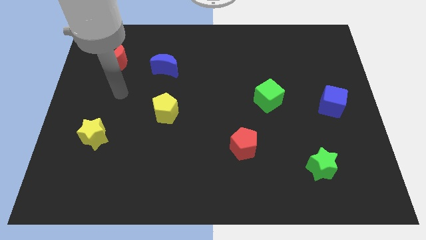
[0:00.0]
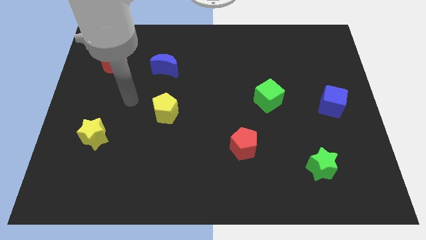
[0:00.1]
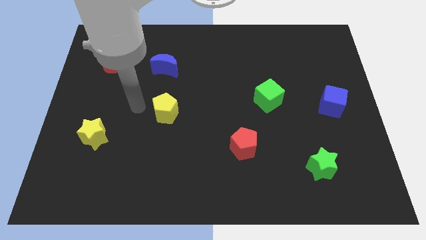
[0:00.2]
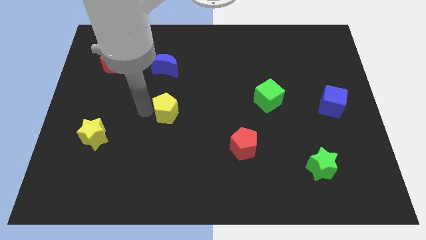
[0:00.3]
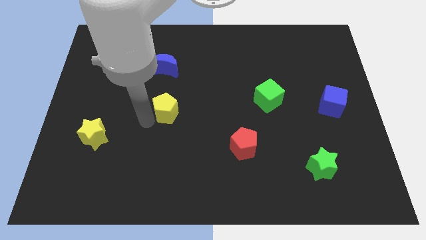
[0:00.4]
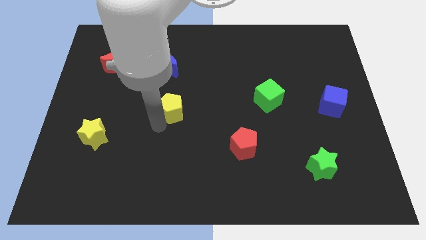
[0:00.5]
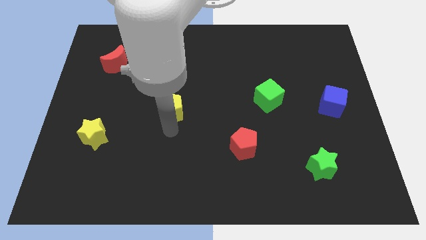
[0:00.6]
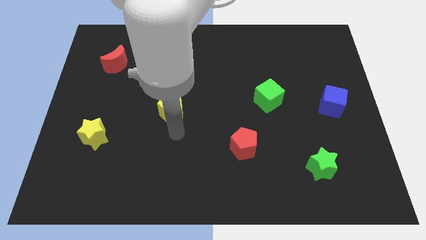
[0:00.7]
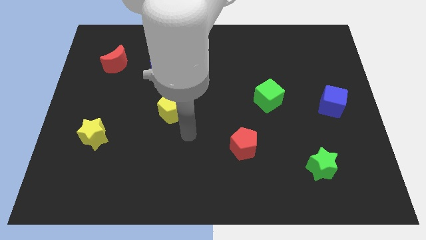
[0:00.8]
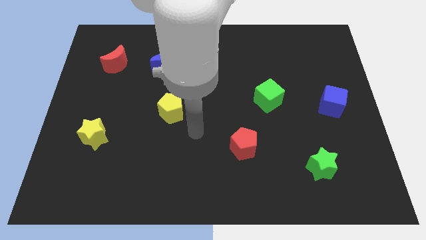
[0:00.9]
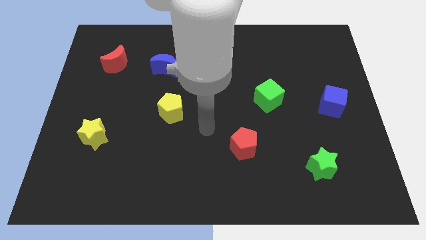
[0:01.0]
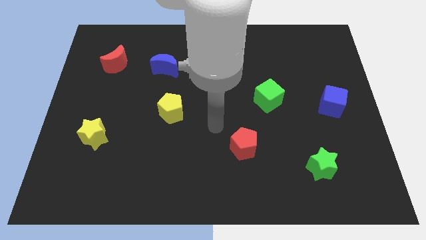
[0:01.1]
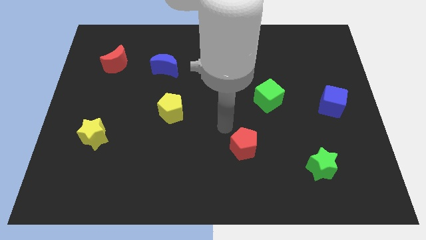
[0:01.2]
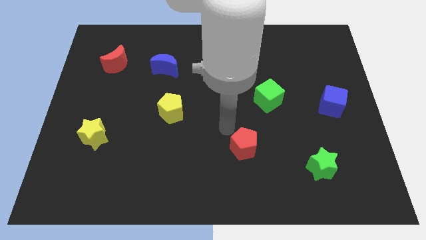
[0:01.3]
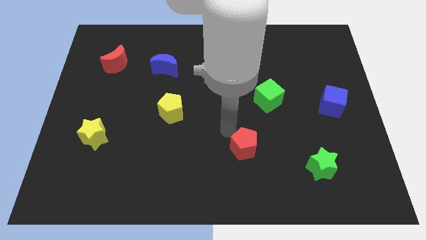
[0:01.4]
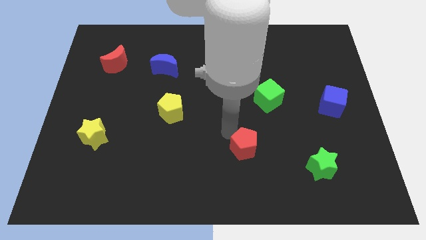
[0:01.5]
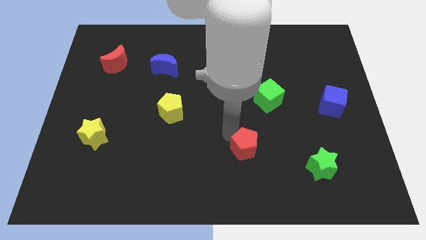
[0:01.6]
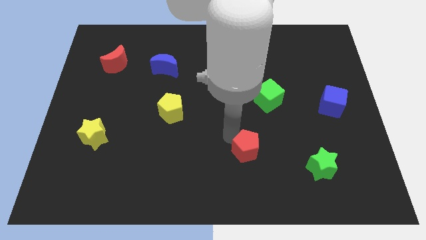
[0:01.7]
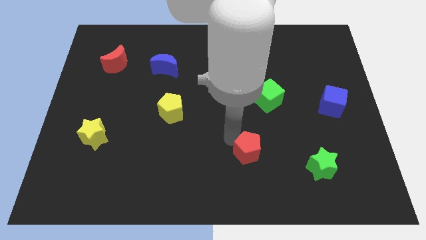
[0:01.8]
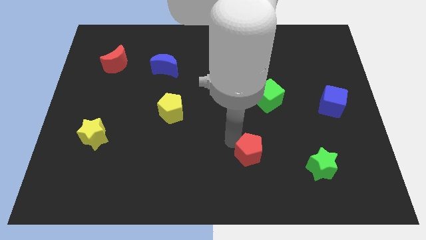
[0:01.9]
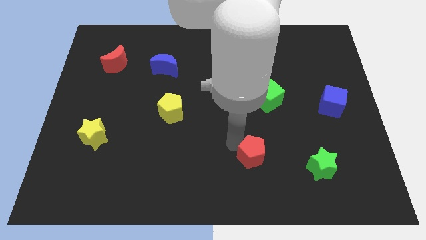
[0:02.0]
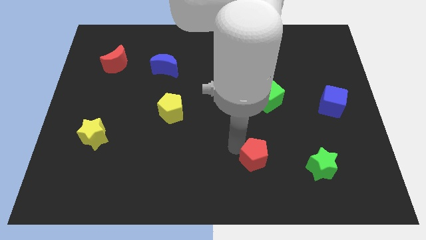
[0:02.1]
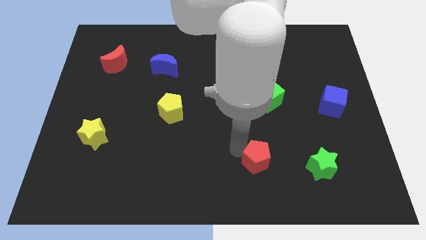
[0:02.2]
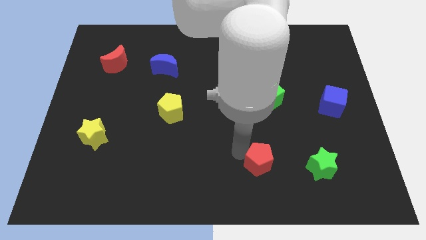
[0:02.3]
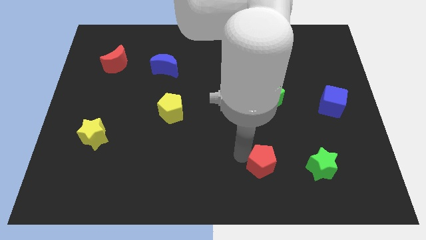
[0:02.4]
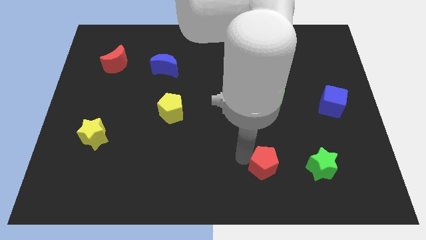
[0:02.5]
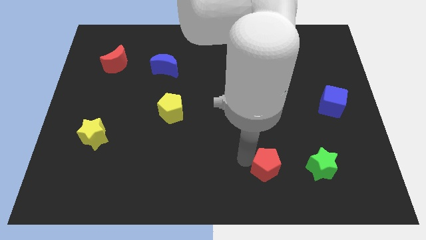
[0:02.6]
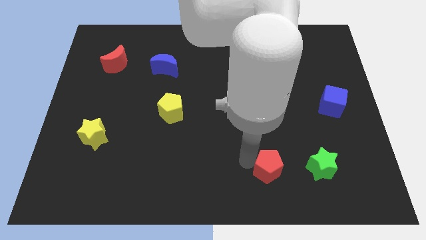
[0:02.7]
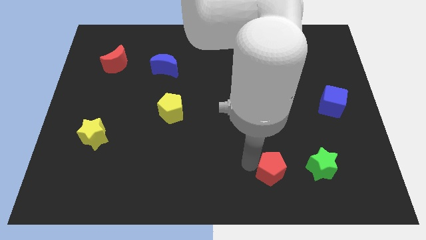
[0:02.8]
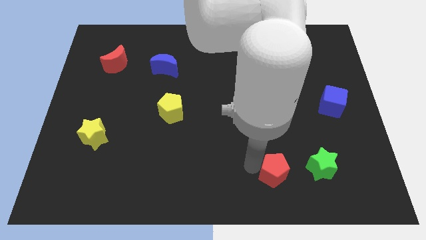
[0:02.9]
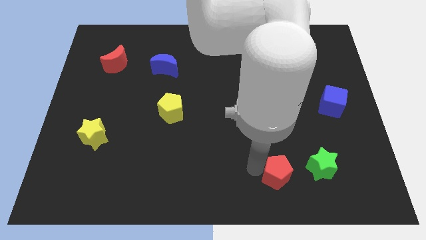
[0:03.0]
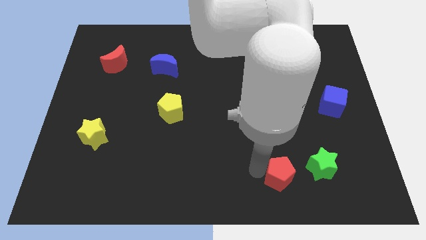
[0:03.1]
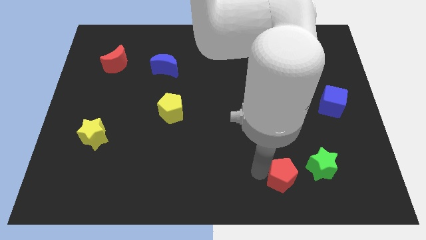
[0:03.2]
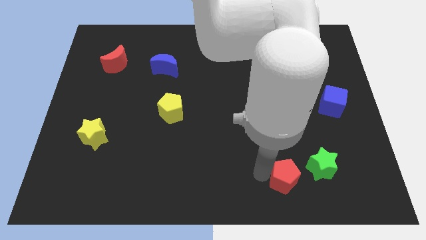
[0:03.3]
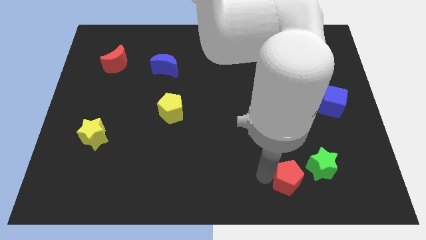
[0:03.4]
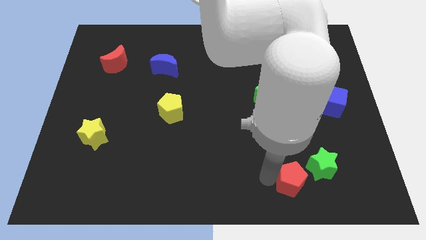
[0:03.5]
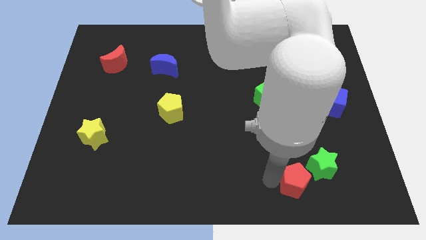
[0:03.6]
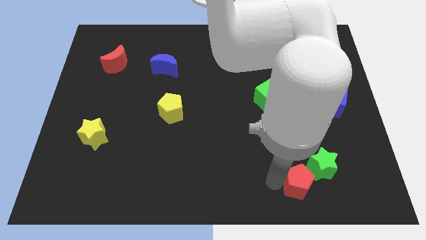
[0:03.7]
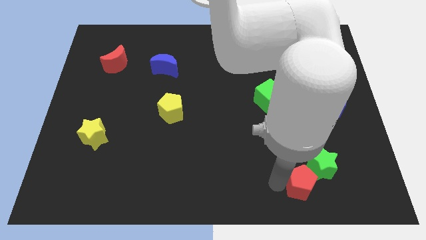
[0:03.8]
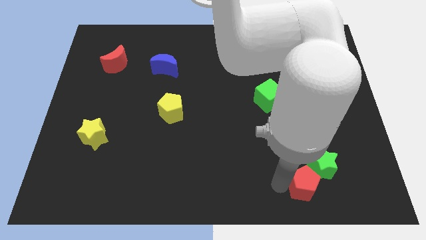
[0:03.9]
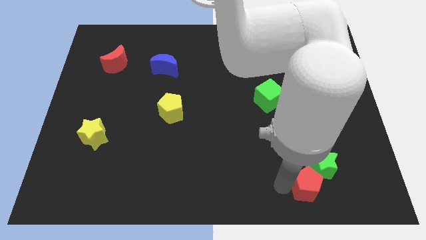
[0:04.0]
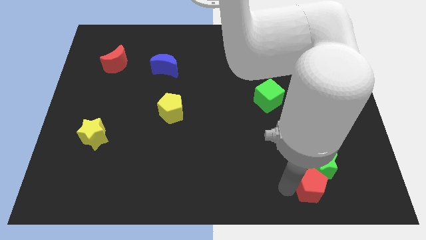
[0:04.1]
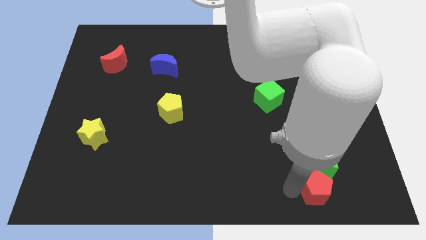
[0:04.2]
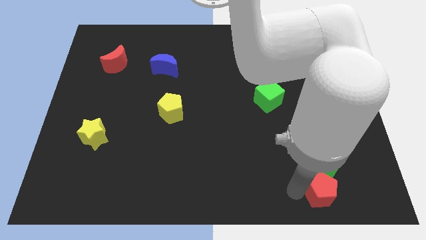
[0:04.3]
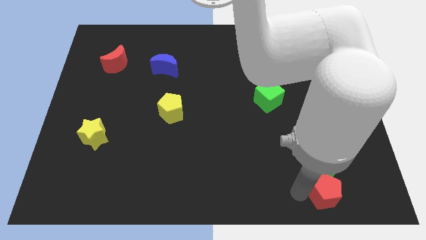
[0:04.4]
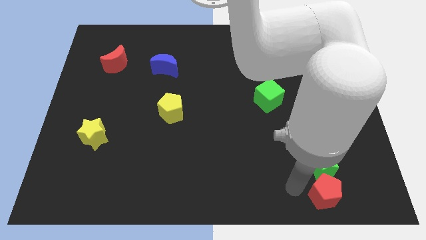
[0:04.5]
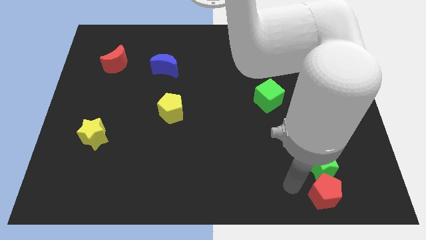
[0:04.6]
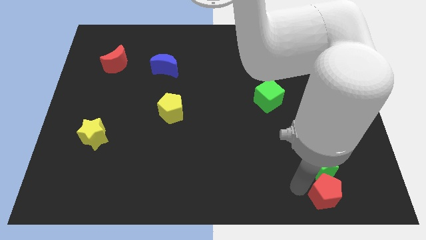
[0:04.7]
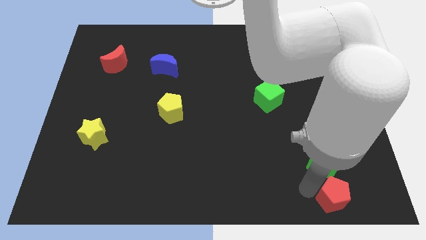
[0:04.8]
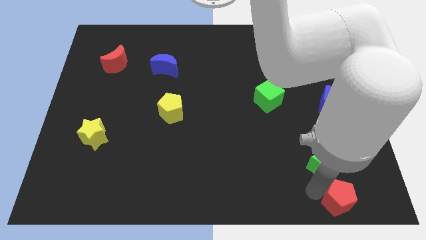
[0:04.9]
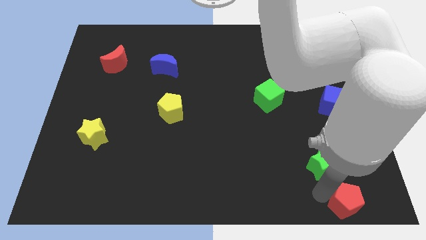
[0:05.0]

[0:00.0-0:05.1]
move the red pentagon to the bottom right

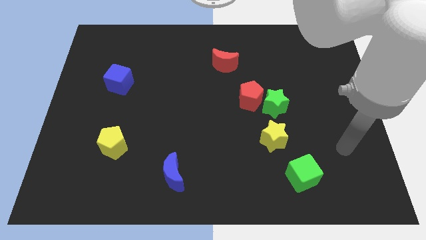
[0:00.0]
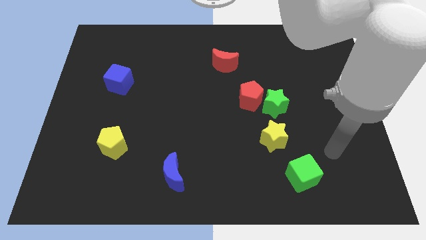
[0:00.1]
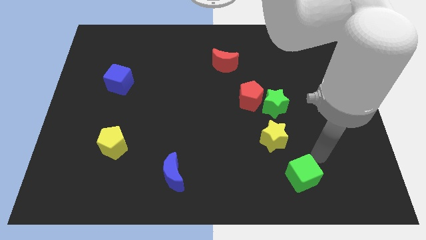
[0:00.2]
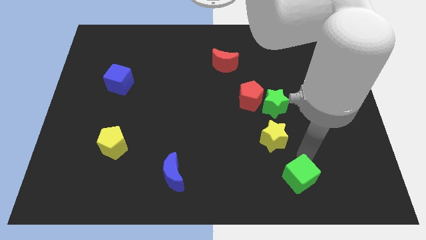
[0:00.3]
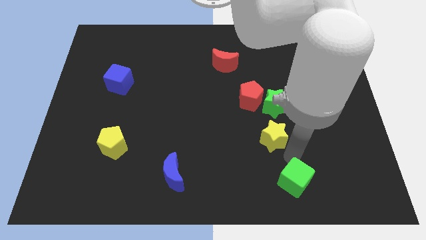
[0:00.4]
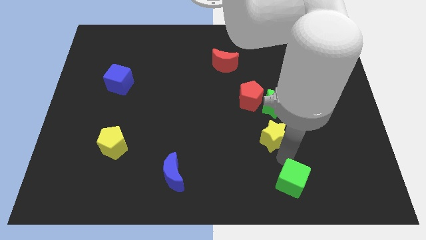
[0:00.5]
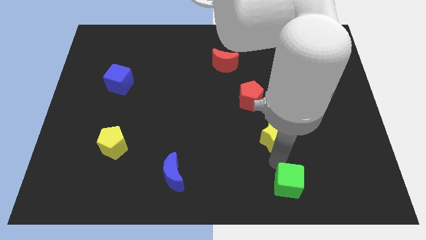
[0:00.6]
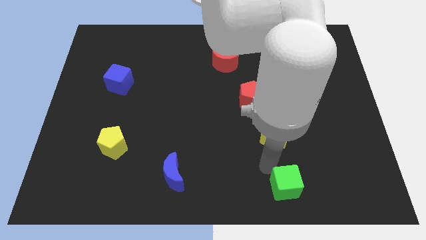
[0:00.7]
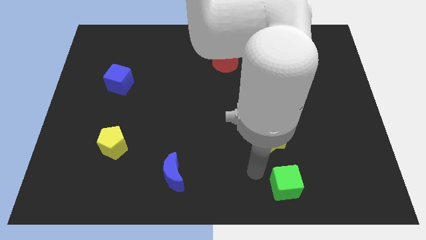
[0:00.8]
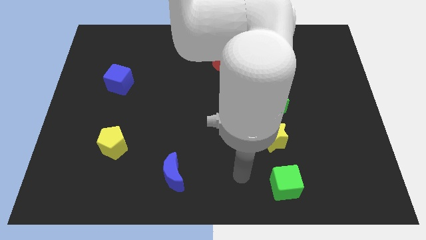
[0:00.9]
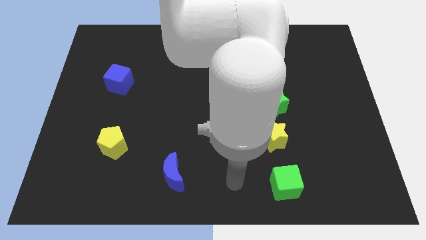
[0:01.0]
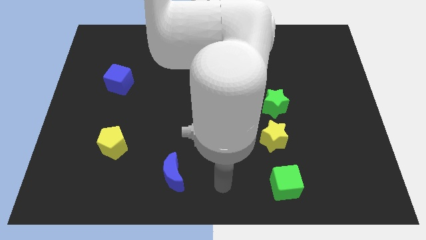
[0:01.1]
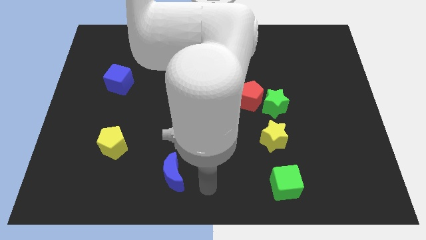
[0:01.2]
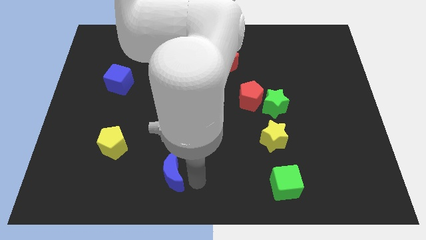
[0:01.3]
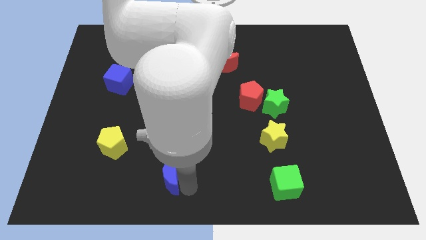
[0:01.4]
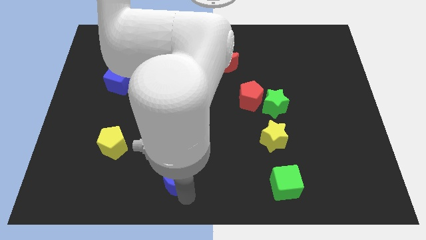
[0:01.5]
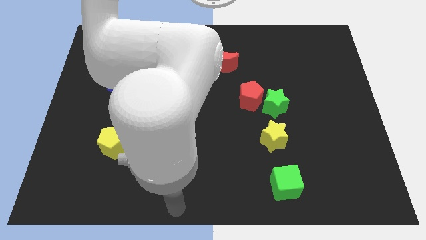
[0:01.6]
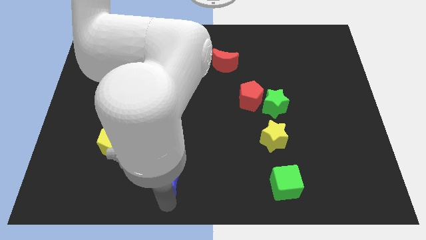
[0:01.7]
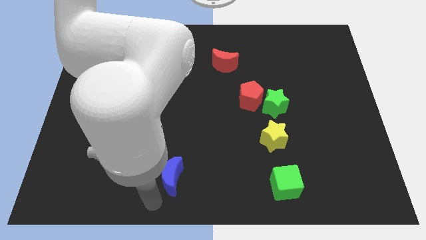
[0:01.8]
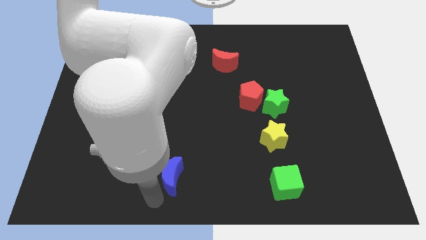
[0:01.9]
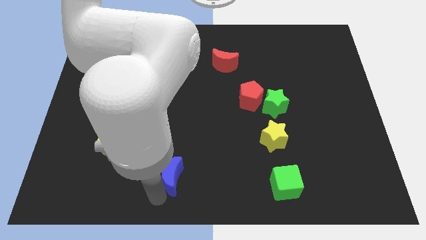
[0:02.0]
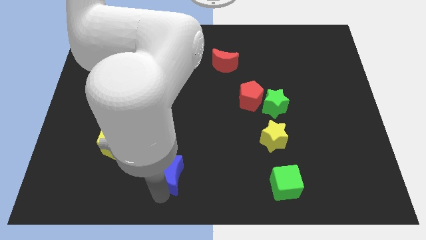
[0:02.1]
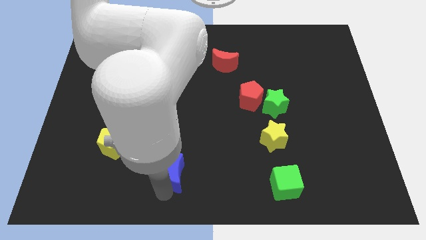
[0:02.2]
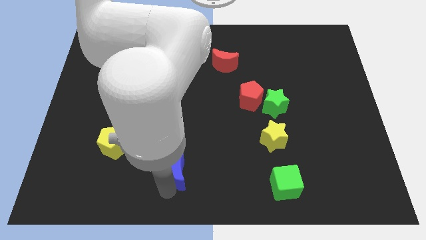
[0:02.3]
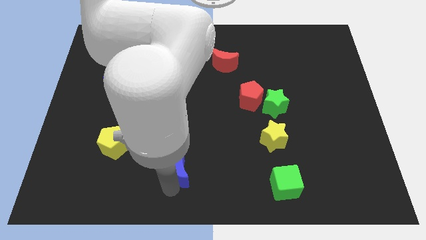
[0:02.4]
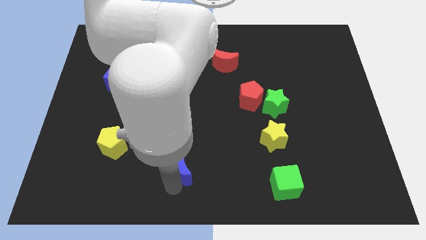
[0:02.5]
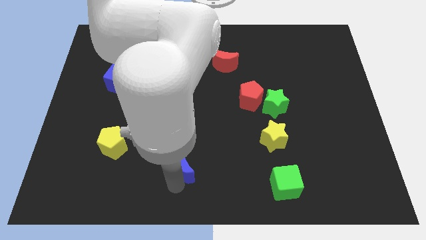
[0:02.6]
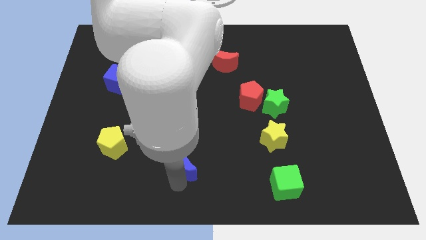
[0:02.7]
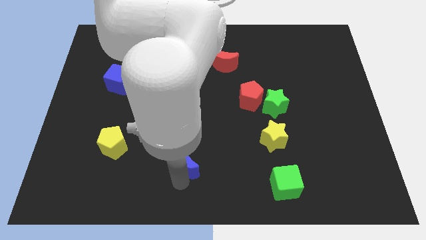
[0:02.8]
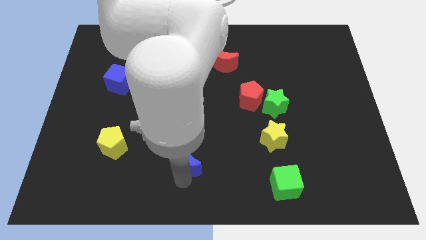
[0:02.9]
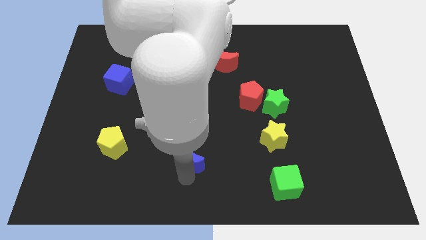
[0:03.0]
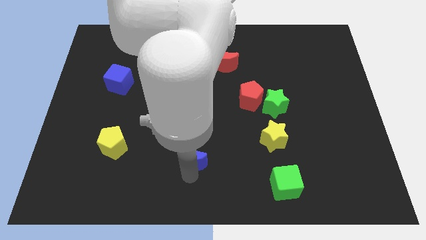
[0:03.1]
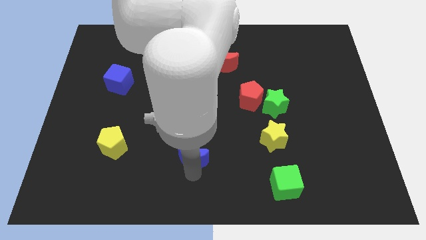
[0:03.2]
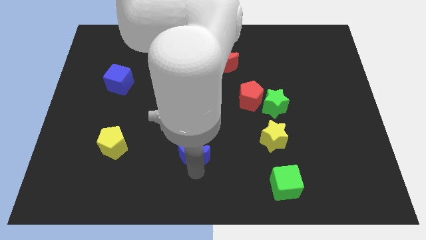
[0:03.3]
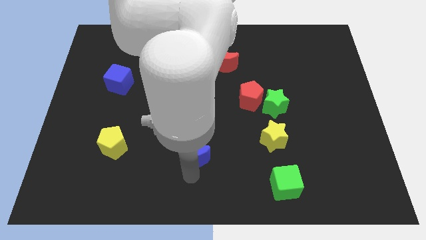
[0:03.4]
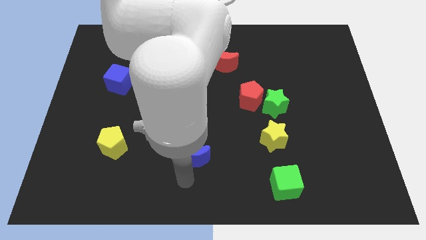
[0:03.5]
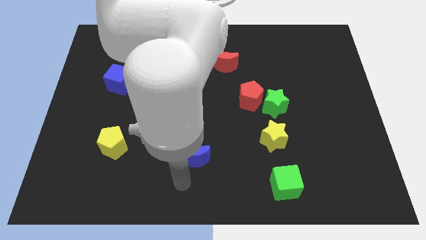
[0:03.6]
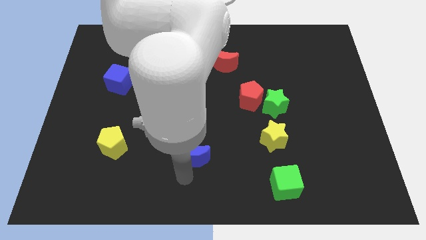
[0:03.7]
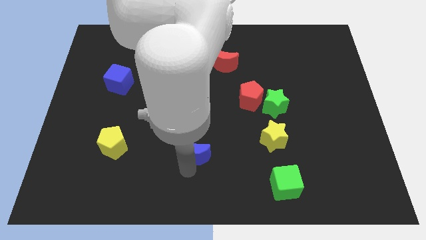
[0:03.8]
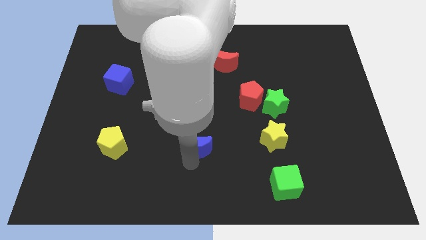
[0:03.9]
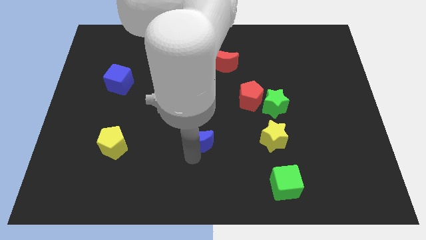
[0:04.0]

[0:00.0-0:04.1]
push the blue moon to the center of the board
